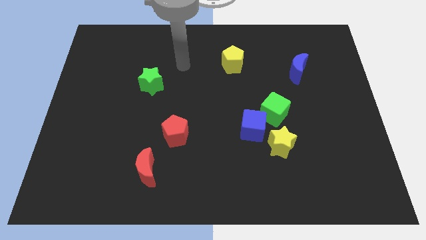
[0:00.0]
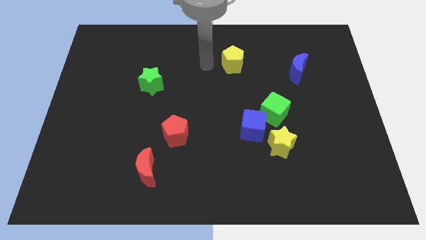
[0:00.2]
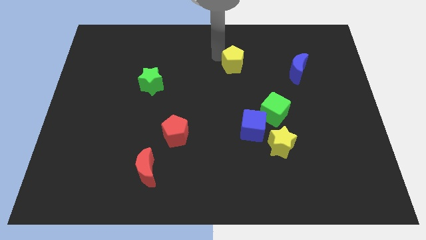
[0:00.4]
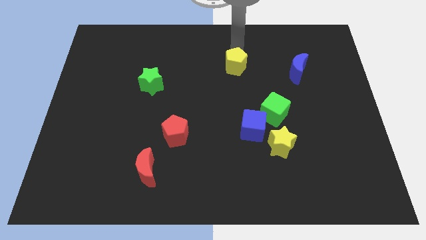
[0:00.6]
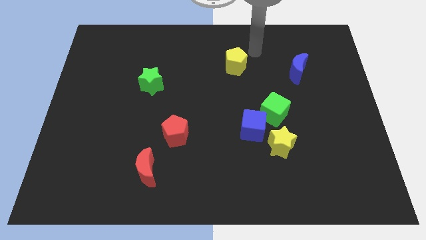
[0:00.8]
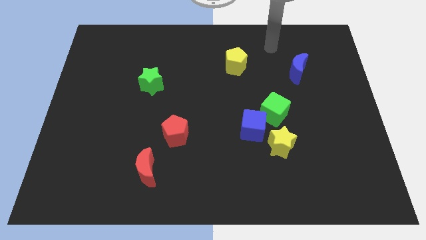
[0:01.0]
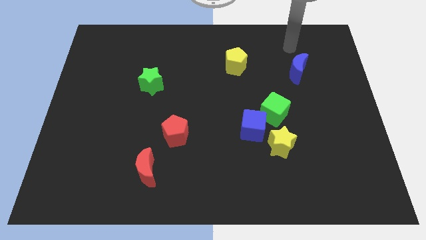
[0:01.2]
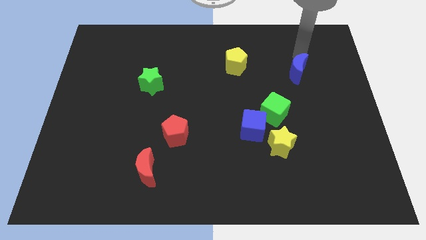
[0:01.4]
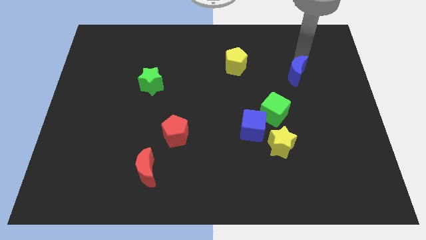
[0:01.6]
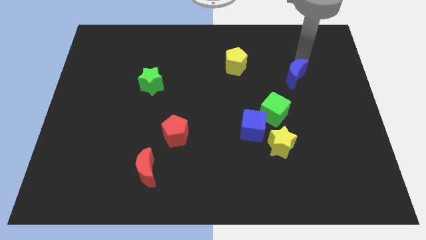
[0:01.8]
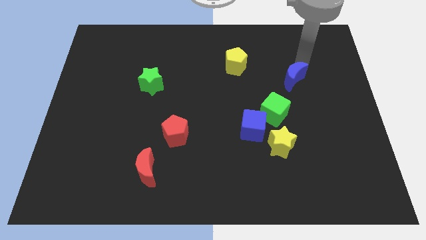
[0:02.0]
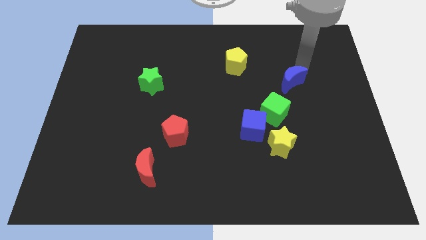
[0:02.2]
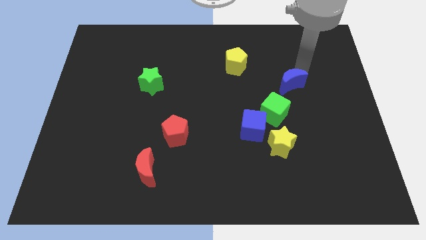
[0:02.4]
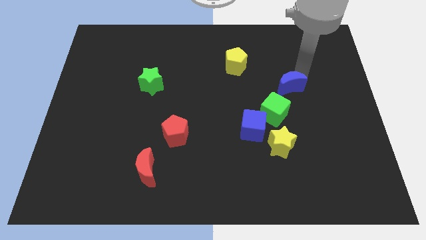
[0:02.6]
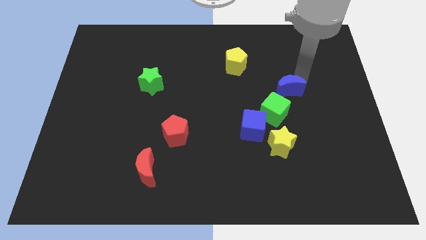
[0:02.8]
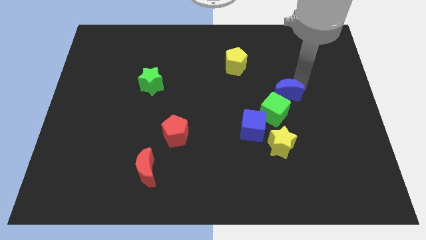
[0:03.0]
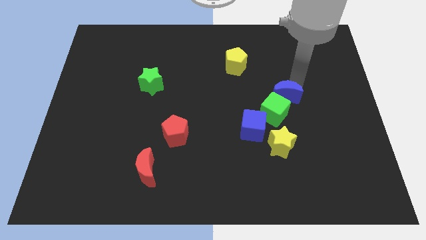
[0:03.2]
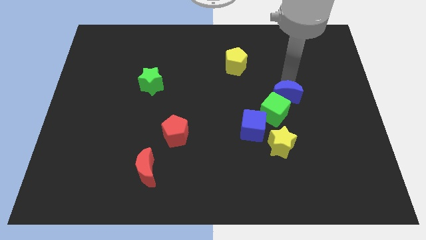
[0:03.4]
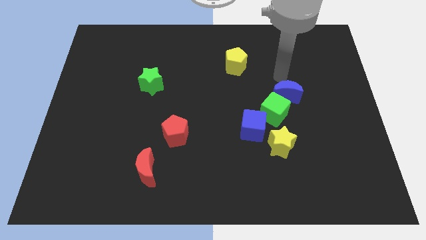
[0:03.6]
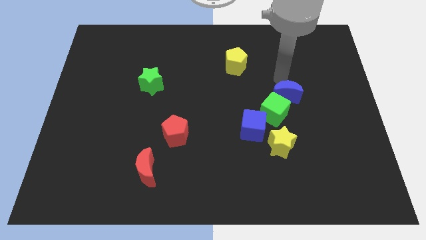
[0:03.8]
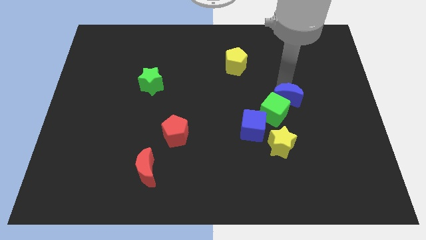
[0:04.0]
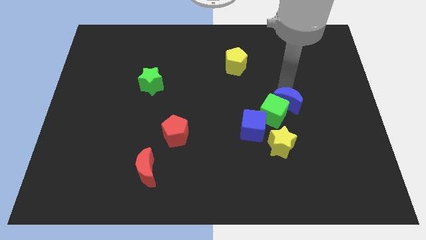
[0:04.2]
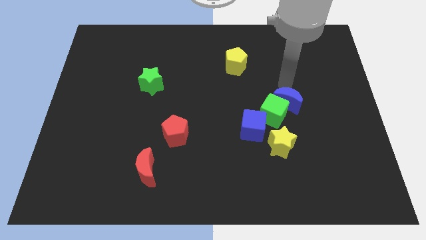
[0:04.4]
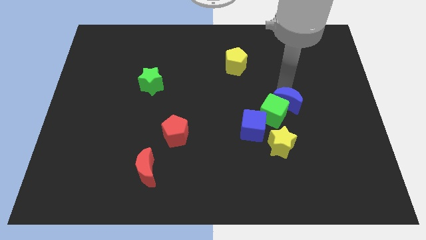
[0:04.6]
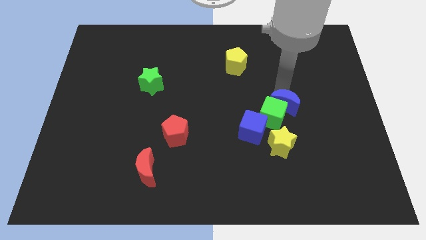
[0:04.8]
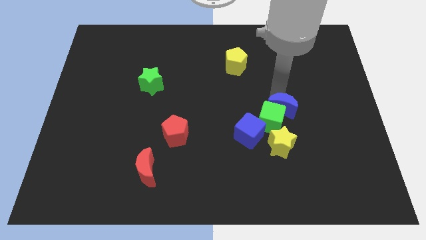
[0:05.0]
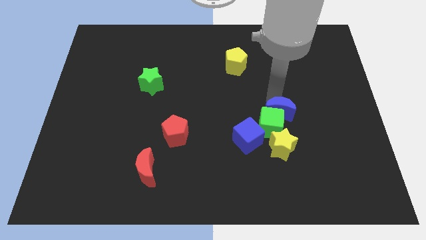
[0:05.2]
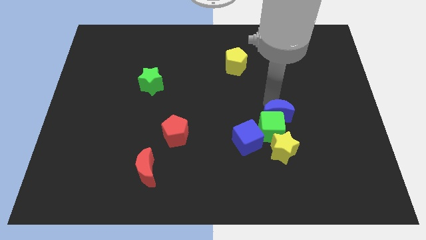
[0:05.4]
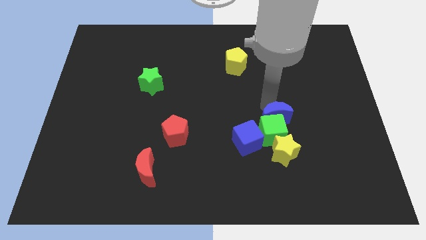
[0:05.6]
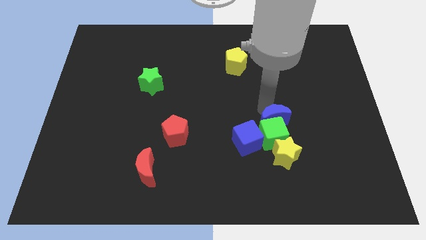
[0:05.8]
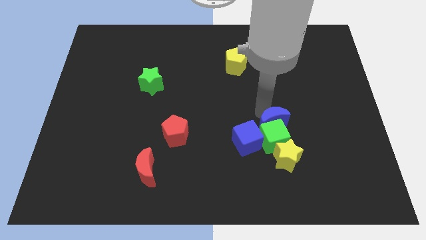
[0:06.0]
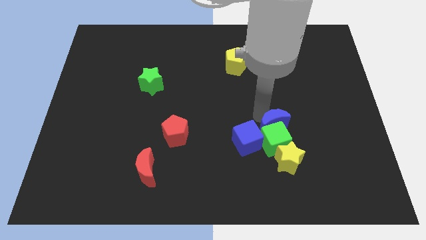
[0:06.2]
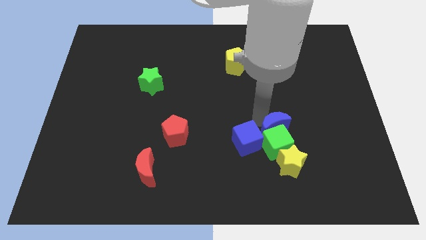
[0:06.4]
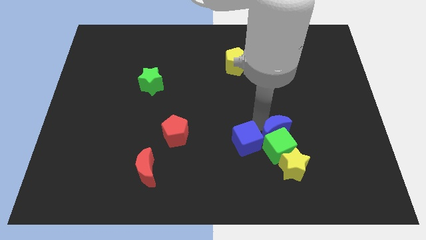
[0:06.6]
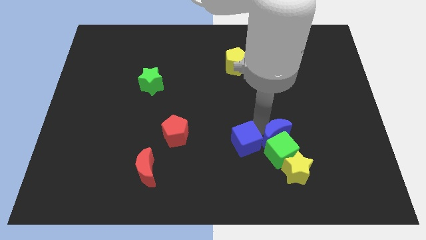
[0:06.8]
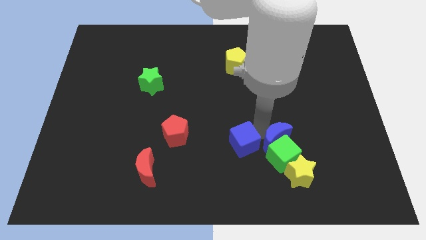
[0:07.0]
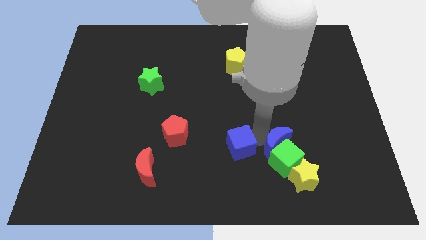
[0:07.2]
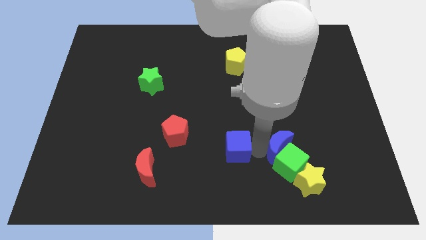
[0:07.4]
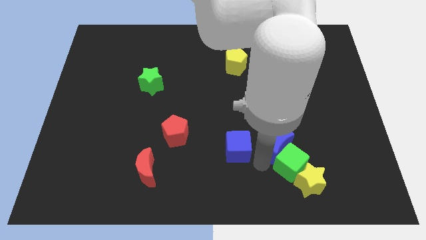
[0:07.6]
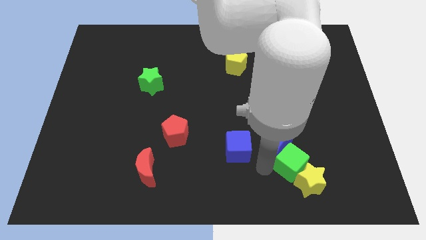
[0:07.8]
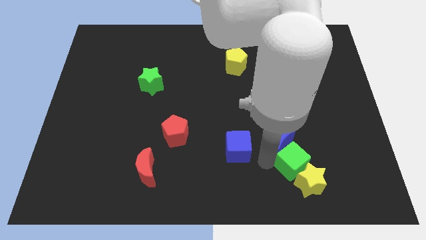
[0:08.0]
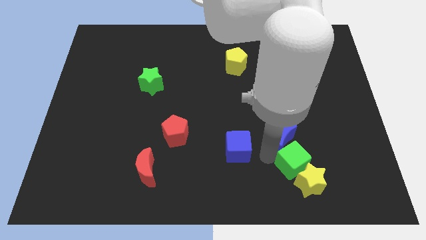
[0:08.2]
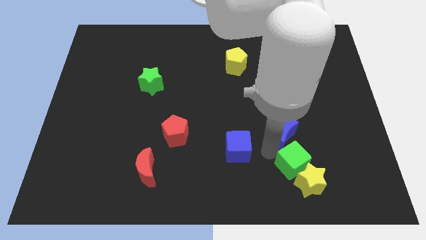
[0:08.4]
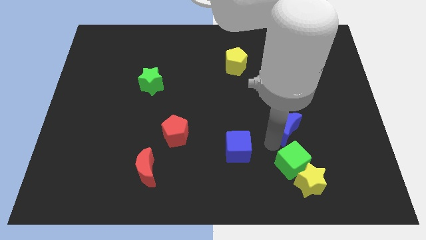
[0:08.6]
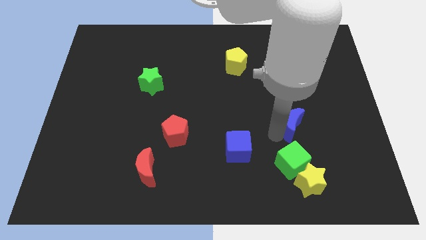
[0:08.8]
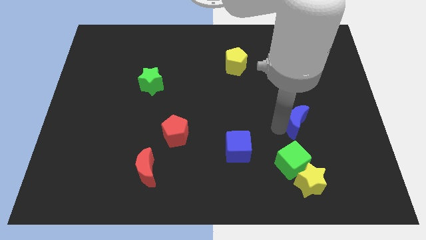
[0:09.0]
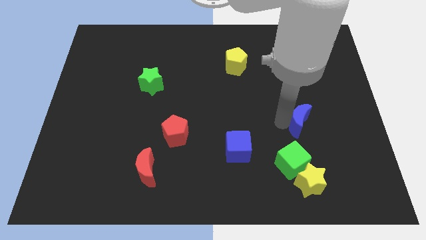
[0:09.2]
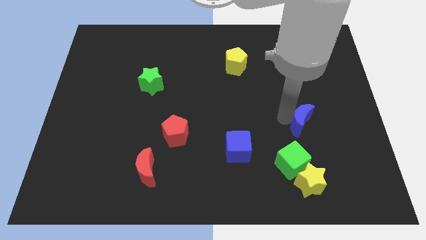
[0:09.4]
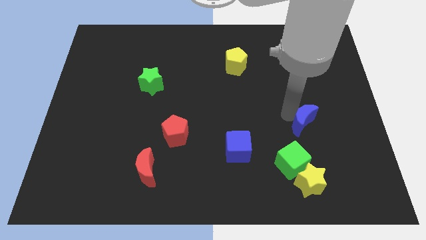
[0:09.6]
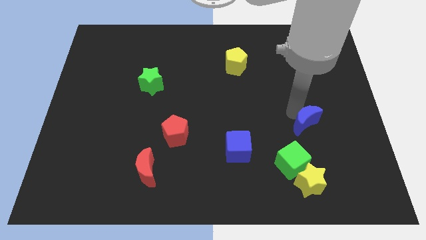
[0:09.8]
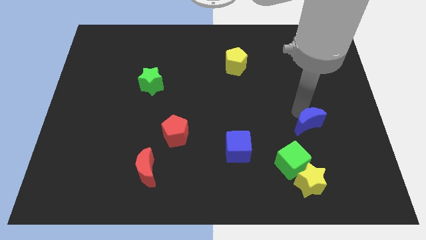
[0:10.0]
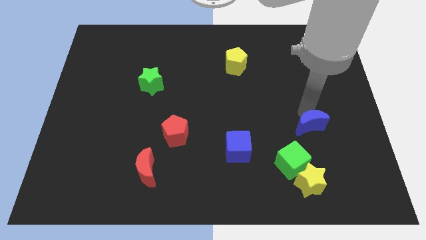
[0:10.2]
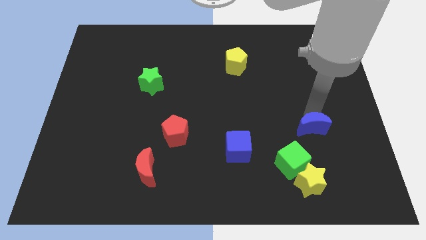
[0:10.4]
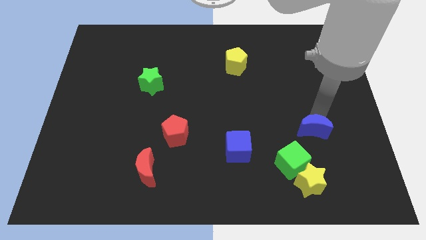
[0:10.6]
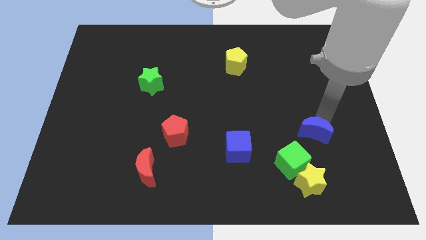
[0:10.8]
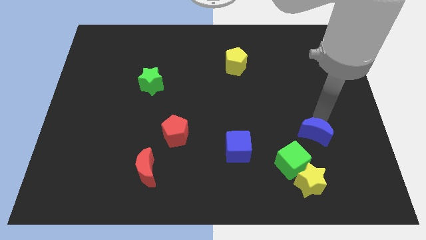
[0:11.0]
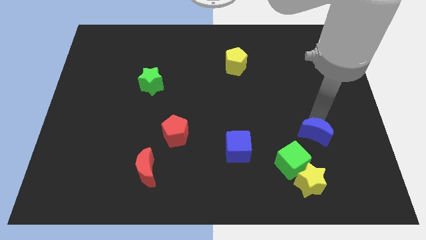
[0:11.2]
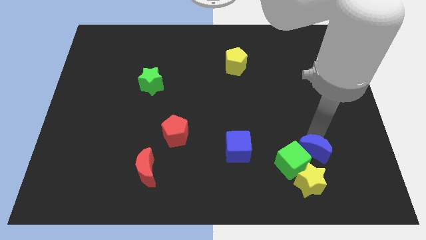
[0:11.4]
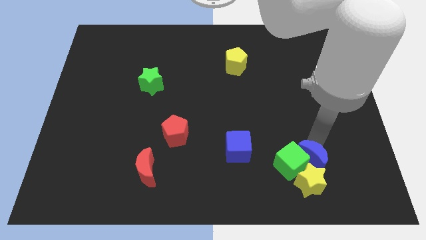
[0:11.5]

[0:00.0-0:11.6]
slide the blue moon towards the yellow star

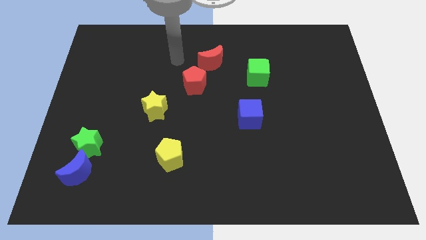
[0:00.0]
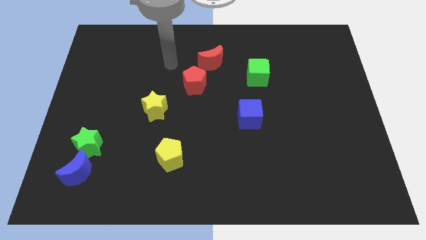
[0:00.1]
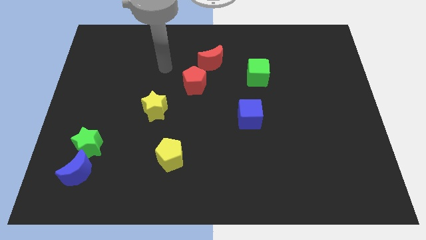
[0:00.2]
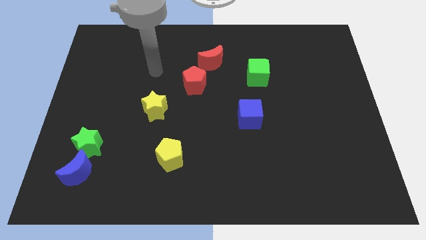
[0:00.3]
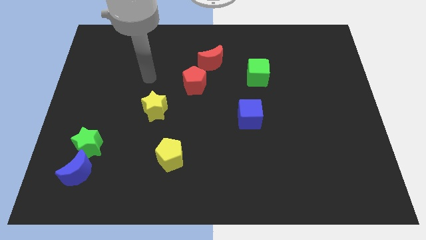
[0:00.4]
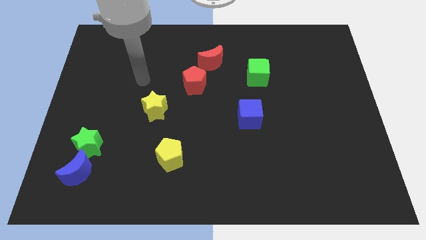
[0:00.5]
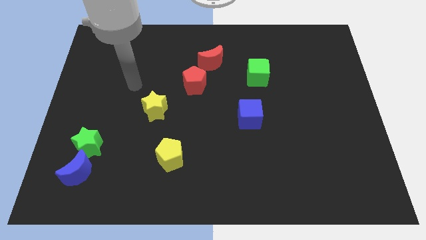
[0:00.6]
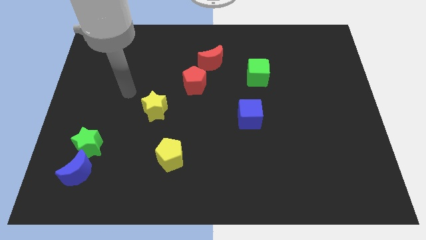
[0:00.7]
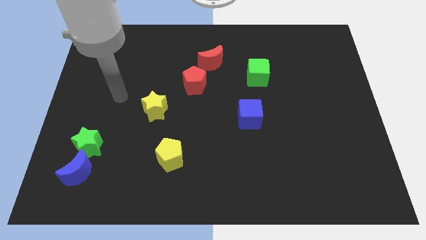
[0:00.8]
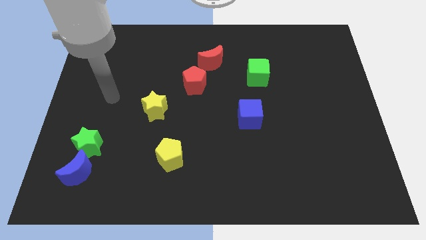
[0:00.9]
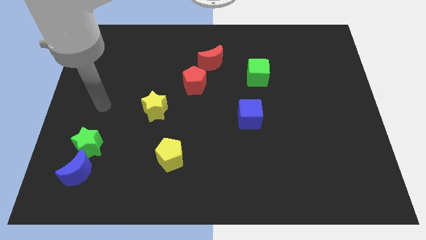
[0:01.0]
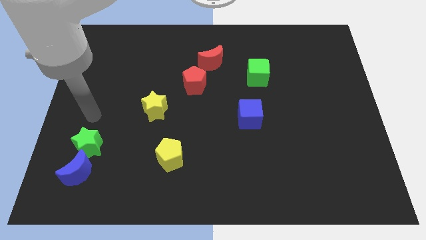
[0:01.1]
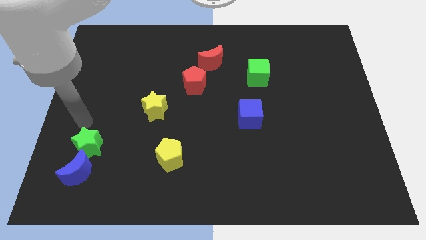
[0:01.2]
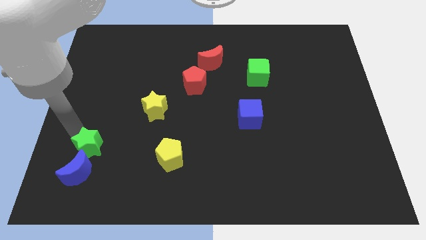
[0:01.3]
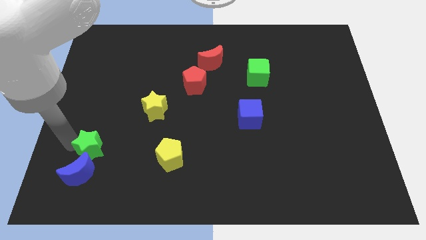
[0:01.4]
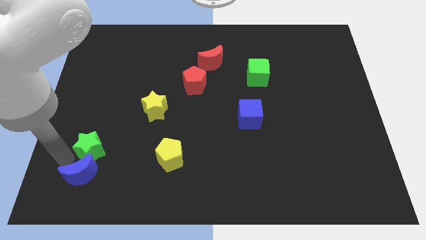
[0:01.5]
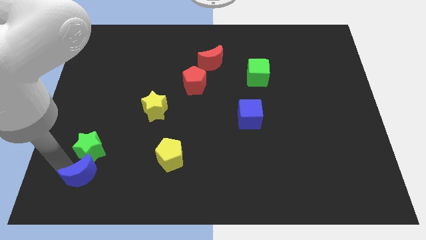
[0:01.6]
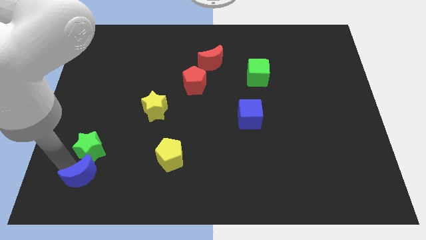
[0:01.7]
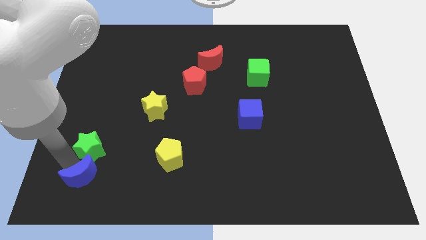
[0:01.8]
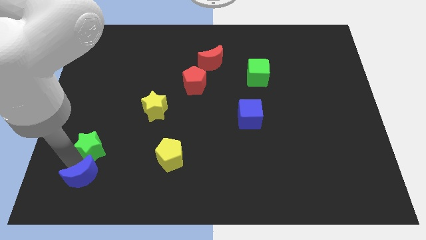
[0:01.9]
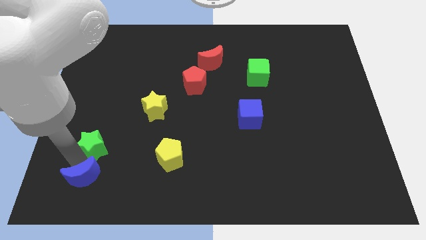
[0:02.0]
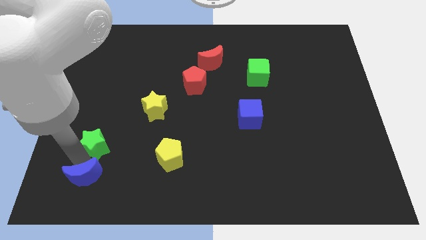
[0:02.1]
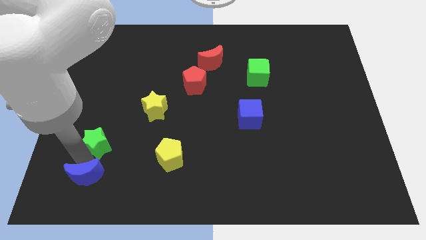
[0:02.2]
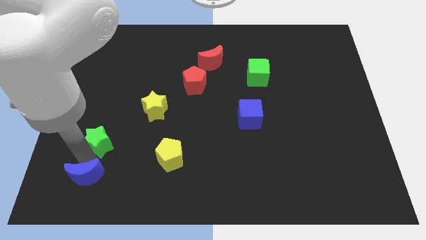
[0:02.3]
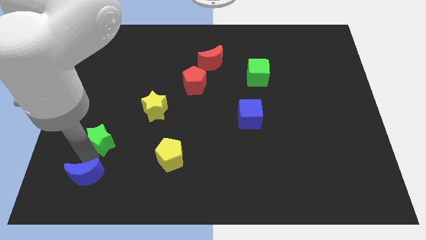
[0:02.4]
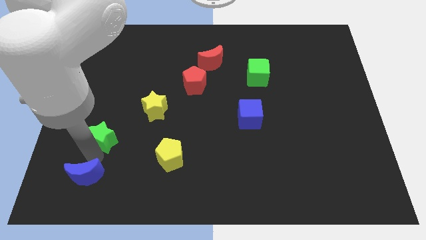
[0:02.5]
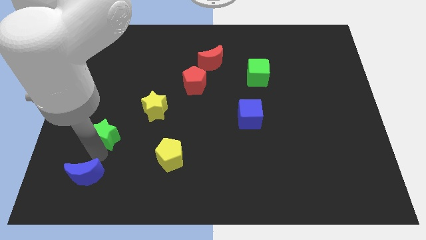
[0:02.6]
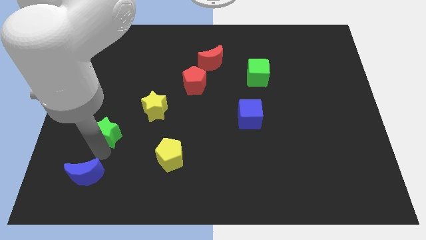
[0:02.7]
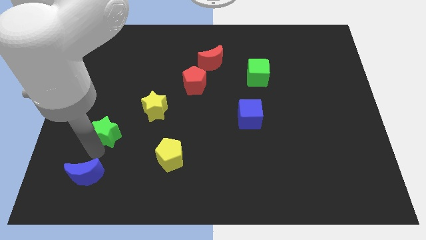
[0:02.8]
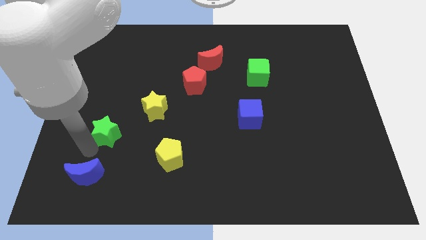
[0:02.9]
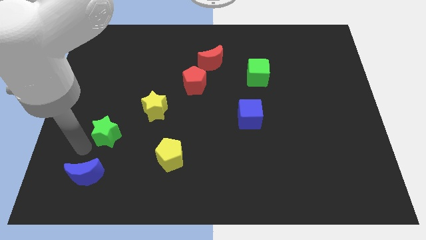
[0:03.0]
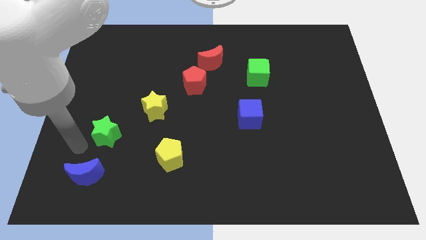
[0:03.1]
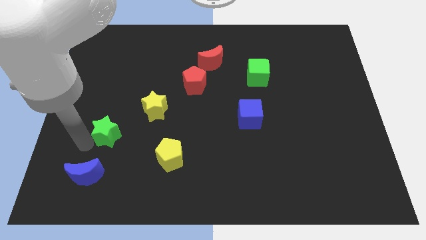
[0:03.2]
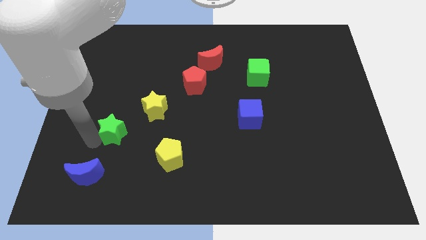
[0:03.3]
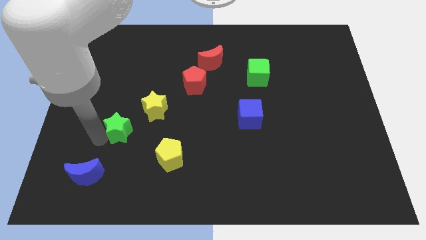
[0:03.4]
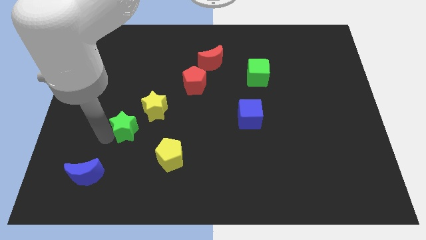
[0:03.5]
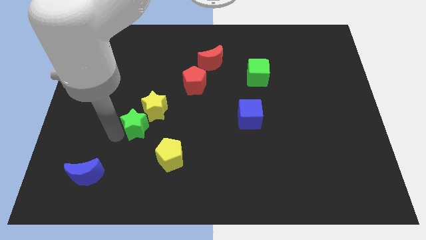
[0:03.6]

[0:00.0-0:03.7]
slide the green star next to the yellow star
